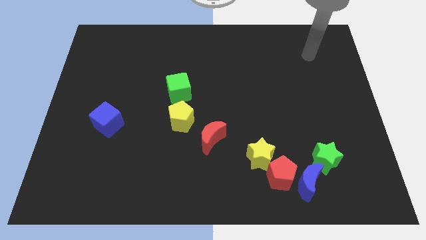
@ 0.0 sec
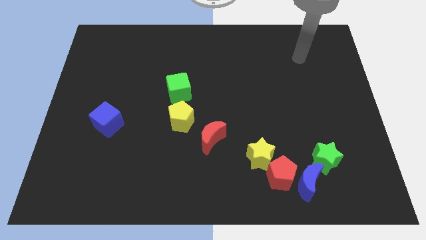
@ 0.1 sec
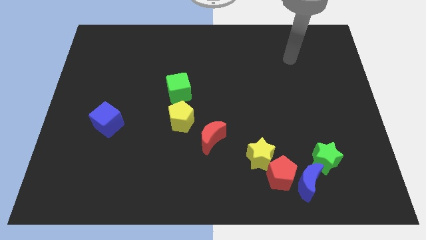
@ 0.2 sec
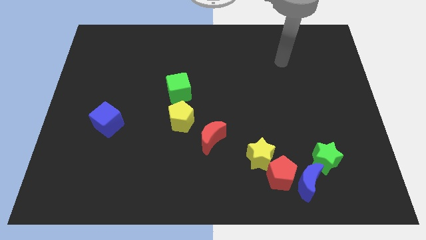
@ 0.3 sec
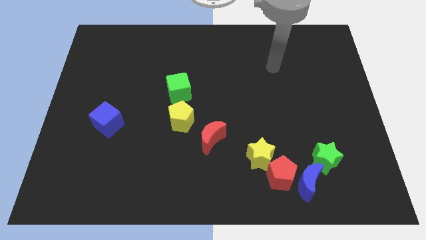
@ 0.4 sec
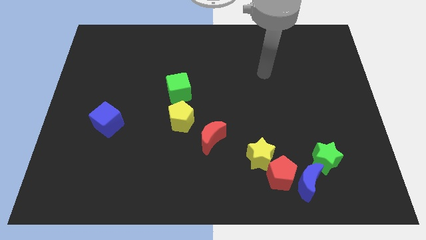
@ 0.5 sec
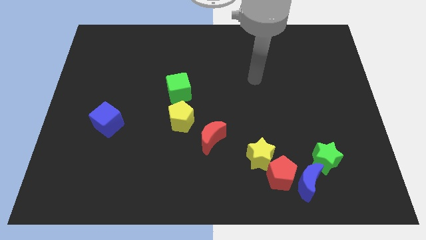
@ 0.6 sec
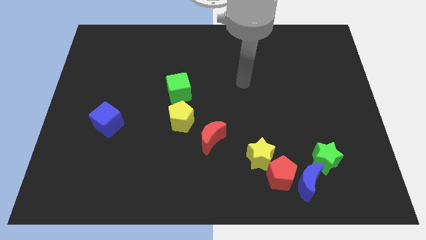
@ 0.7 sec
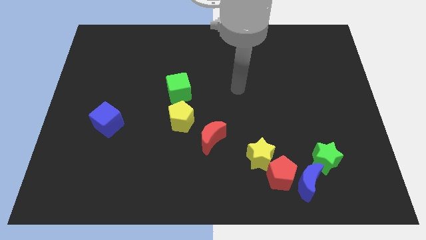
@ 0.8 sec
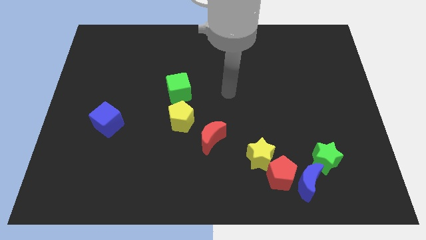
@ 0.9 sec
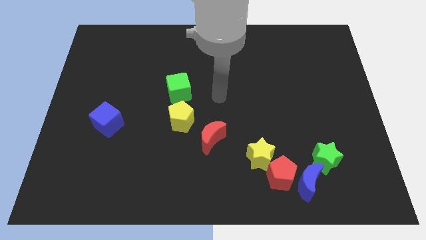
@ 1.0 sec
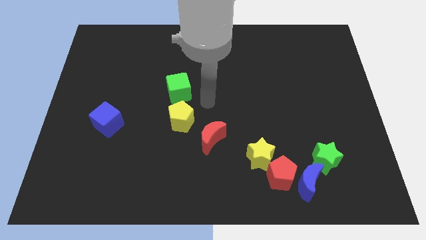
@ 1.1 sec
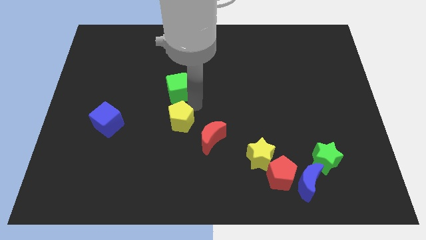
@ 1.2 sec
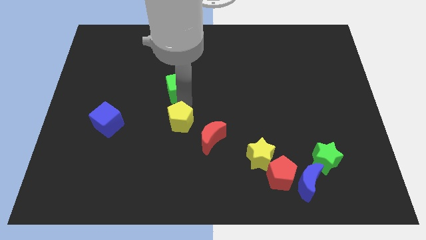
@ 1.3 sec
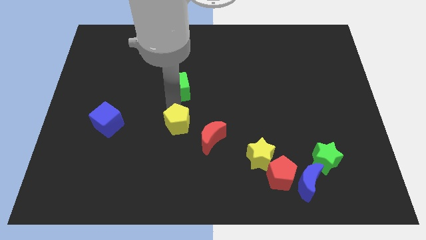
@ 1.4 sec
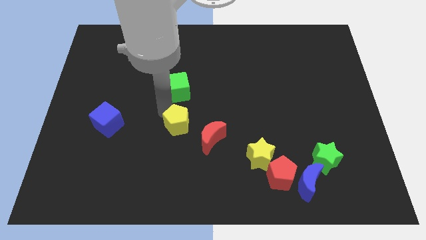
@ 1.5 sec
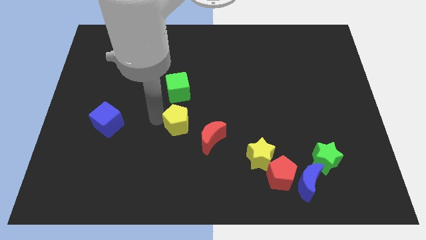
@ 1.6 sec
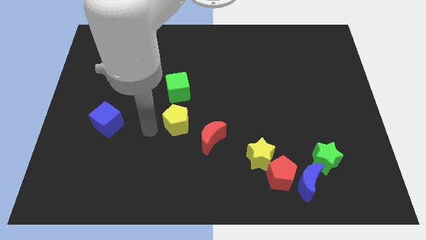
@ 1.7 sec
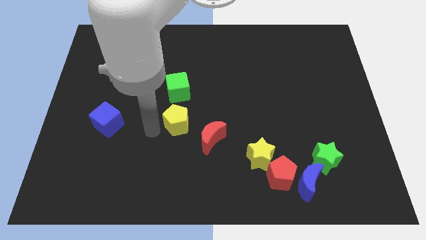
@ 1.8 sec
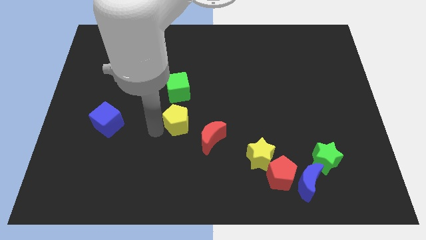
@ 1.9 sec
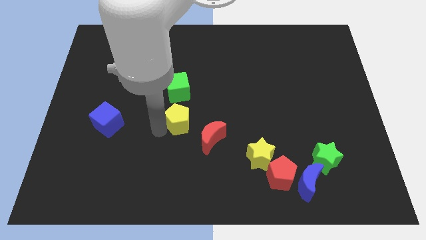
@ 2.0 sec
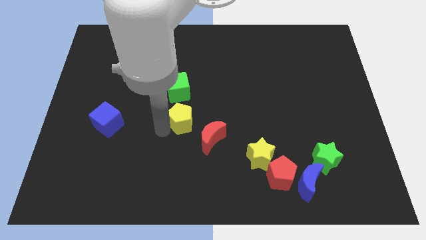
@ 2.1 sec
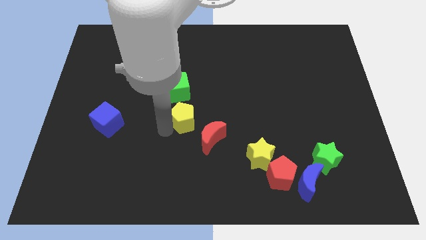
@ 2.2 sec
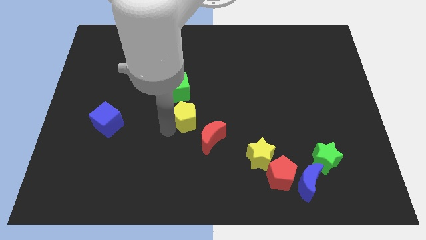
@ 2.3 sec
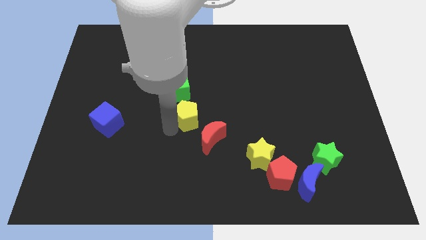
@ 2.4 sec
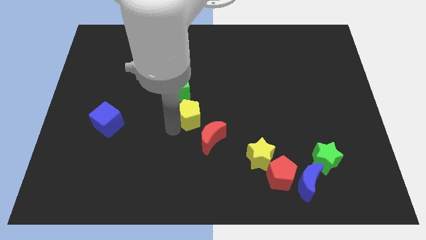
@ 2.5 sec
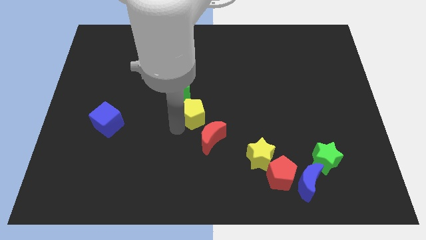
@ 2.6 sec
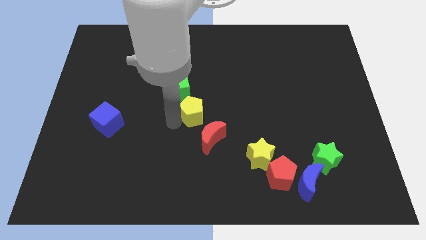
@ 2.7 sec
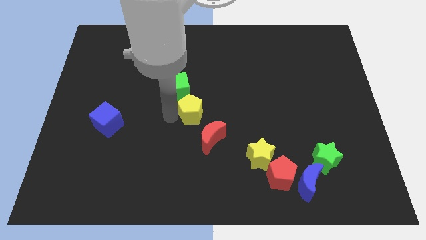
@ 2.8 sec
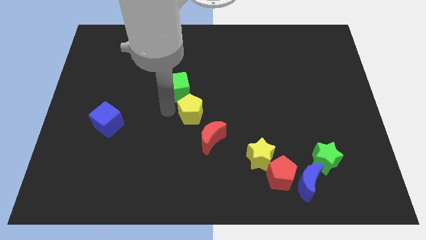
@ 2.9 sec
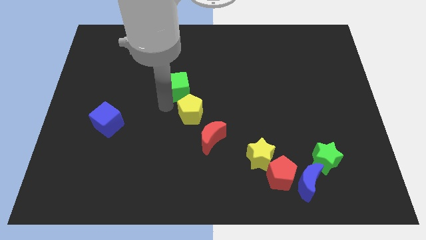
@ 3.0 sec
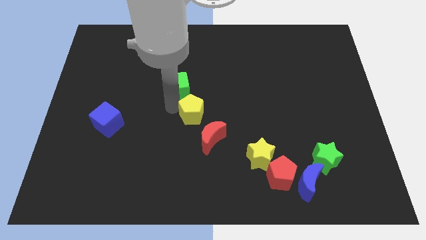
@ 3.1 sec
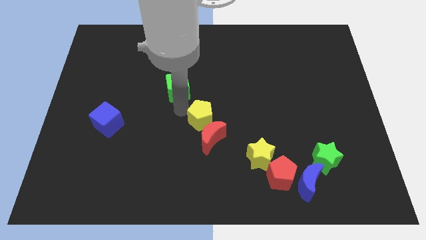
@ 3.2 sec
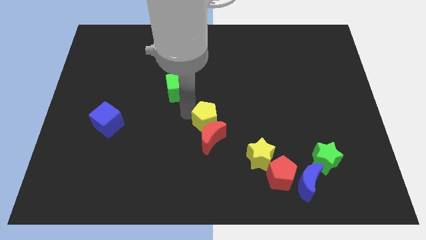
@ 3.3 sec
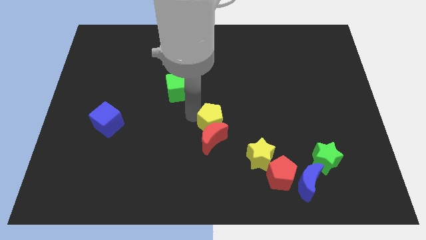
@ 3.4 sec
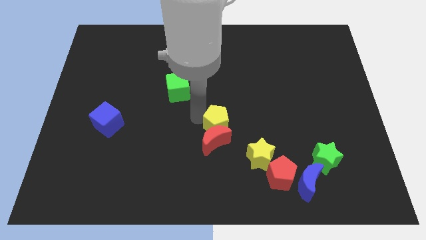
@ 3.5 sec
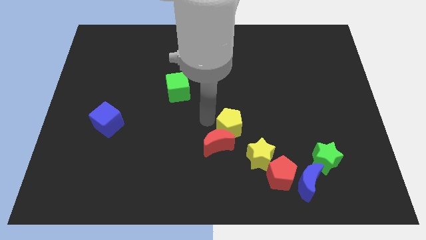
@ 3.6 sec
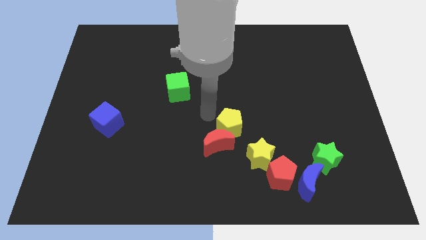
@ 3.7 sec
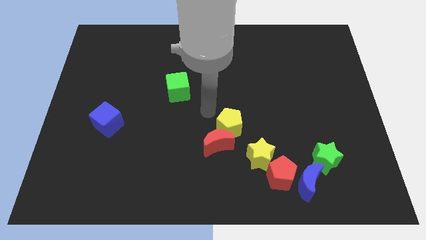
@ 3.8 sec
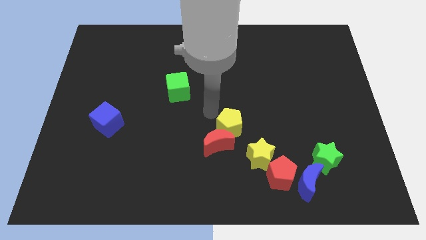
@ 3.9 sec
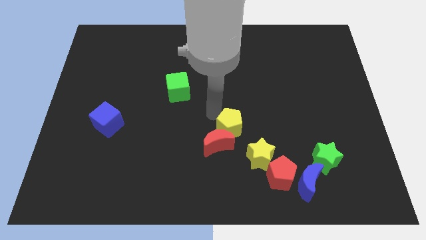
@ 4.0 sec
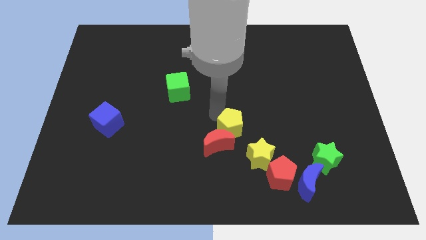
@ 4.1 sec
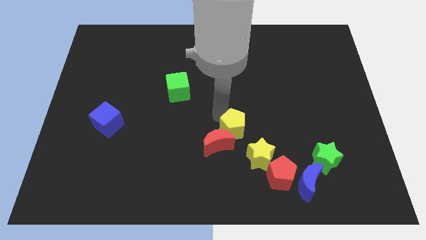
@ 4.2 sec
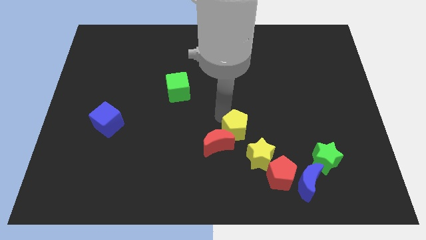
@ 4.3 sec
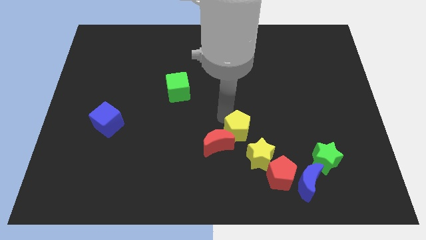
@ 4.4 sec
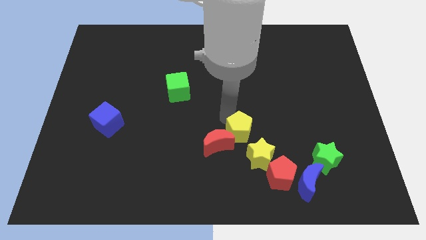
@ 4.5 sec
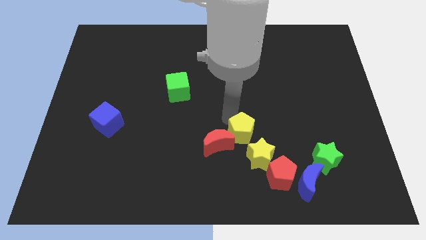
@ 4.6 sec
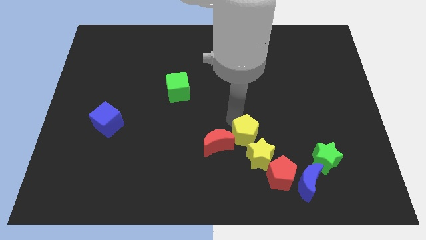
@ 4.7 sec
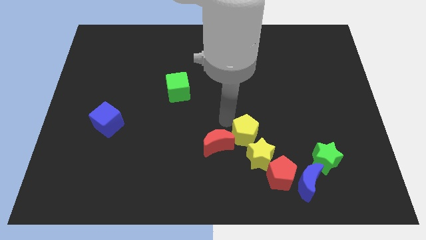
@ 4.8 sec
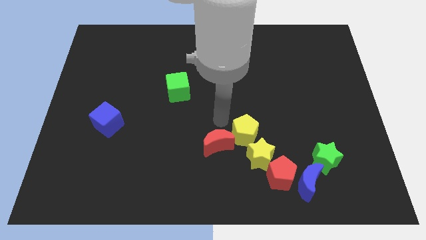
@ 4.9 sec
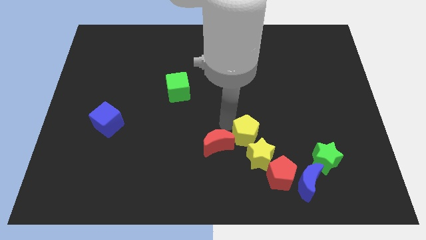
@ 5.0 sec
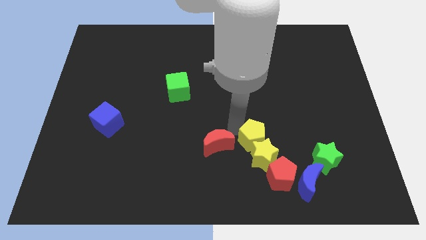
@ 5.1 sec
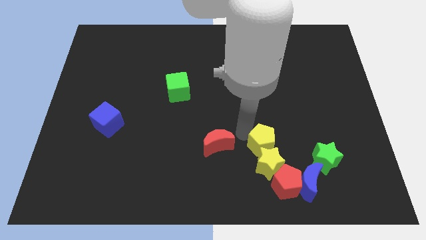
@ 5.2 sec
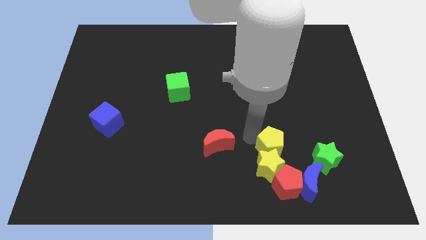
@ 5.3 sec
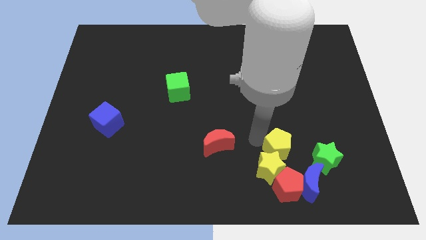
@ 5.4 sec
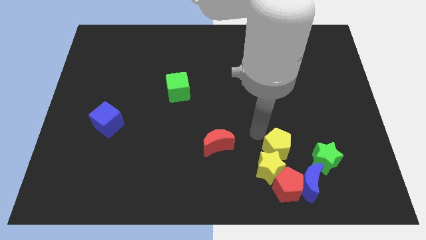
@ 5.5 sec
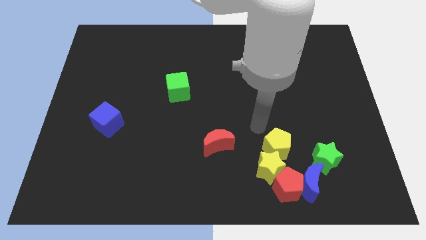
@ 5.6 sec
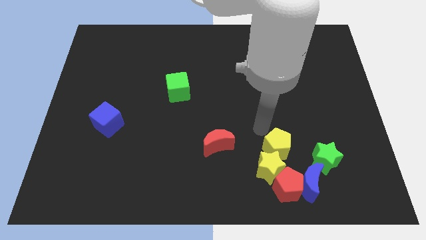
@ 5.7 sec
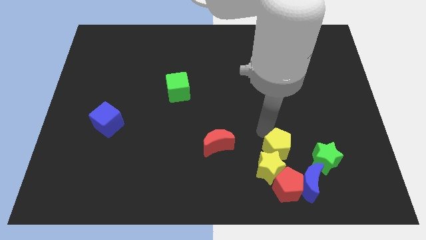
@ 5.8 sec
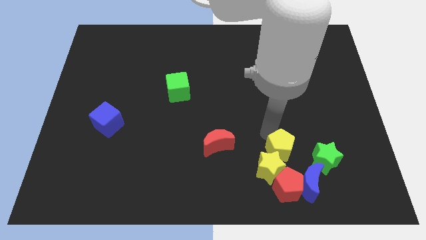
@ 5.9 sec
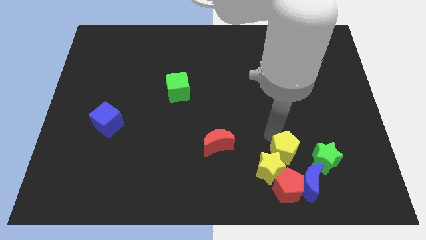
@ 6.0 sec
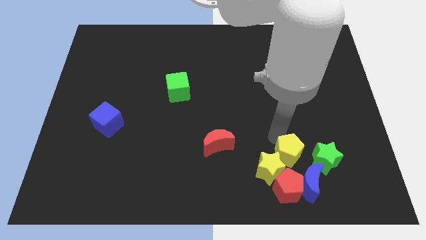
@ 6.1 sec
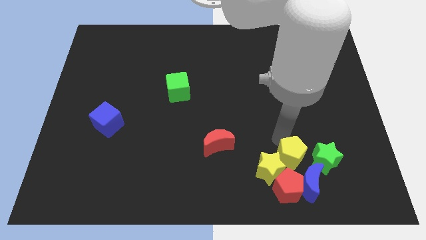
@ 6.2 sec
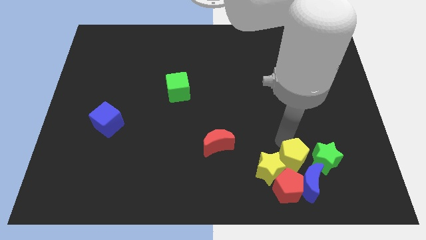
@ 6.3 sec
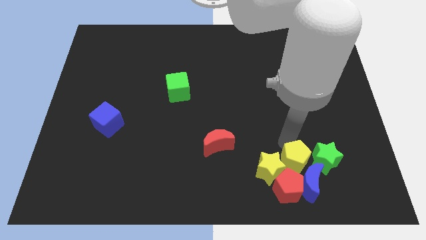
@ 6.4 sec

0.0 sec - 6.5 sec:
slide the yellow pentagon towards the blue moon
